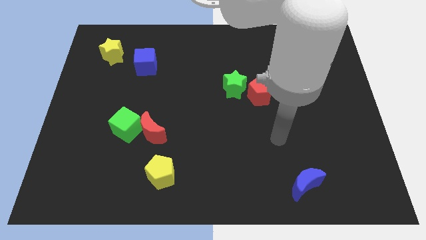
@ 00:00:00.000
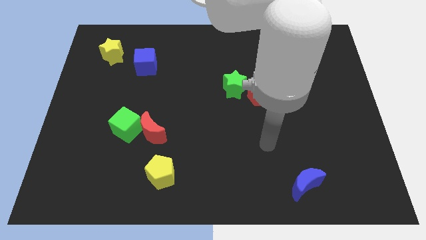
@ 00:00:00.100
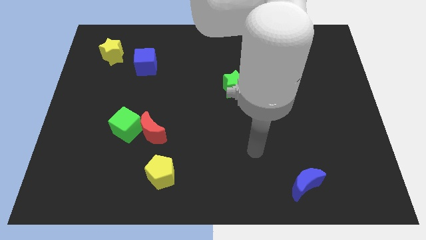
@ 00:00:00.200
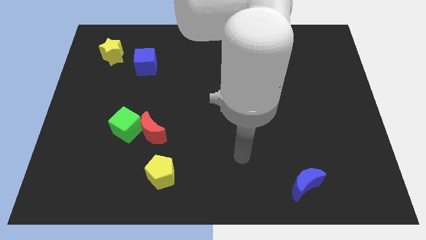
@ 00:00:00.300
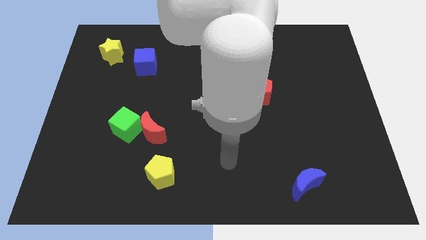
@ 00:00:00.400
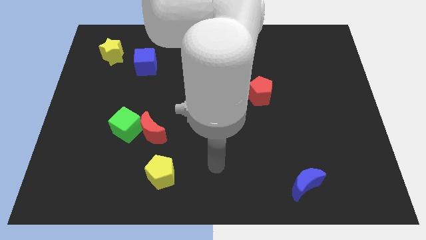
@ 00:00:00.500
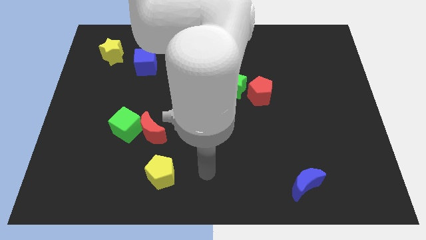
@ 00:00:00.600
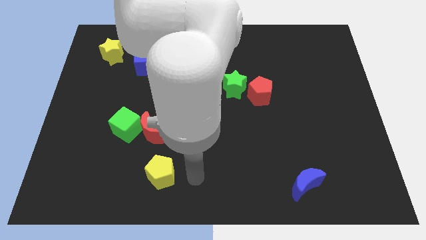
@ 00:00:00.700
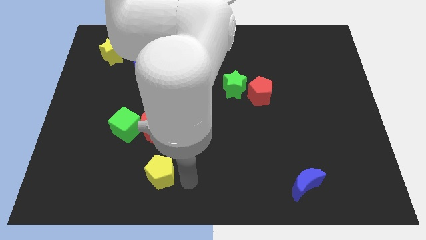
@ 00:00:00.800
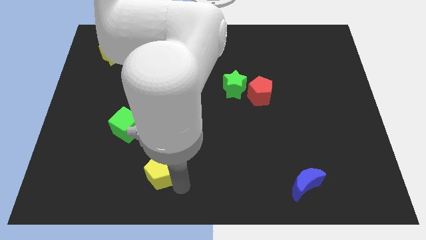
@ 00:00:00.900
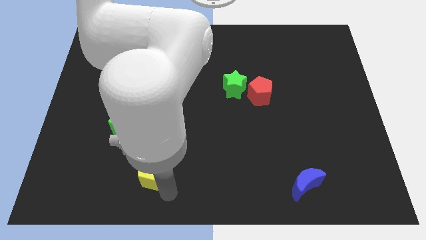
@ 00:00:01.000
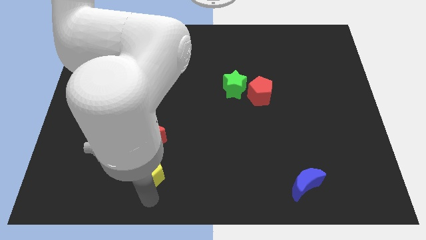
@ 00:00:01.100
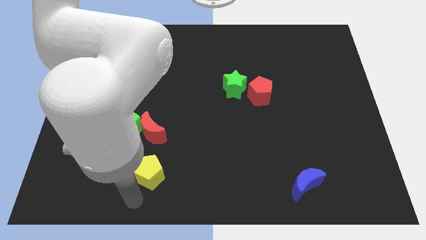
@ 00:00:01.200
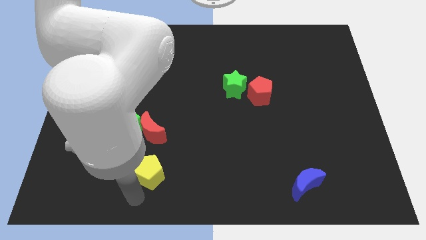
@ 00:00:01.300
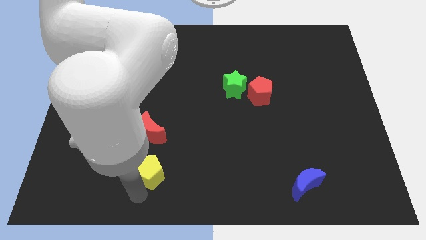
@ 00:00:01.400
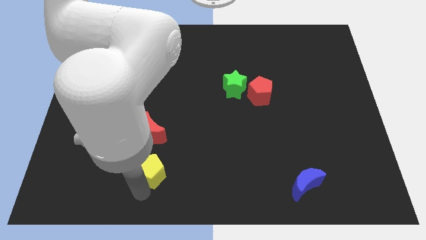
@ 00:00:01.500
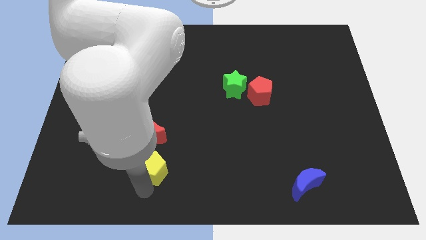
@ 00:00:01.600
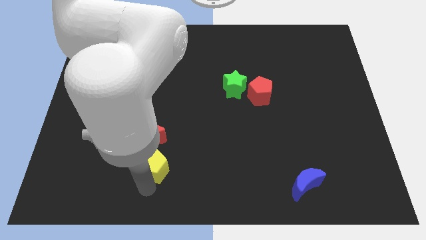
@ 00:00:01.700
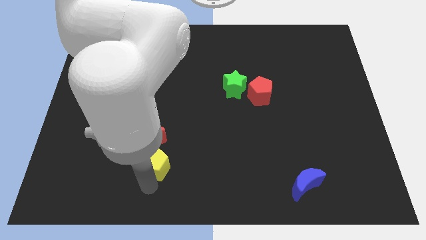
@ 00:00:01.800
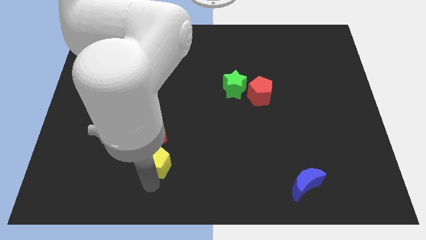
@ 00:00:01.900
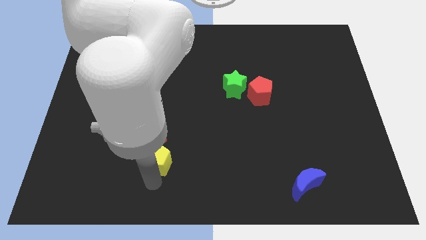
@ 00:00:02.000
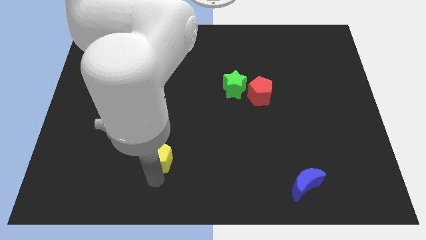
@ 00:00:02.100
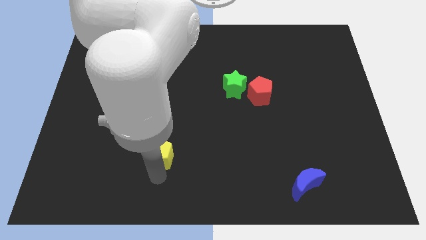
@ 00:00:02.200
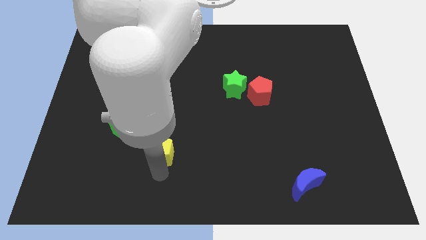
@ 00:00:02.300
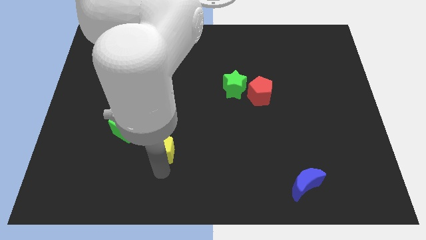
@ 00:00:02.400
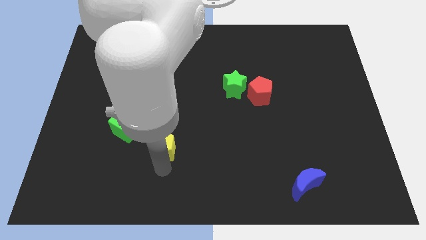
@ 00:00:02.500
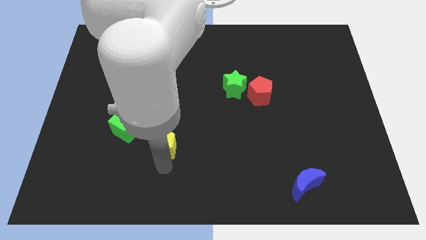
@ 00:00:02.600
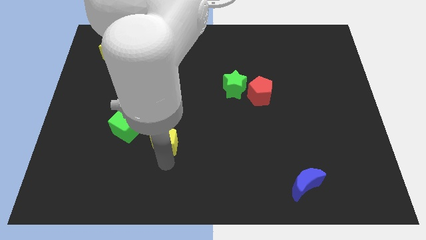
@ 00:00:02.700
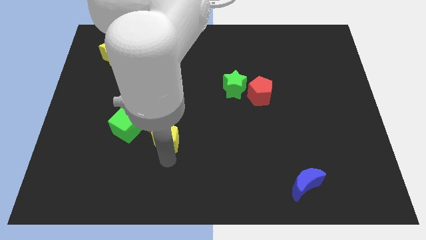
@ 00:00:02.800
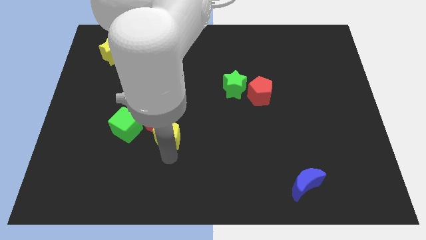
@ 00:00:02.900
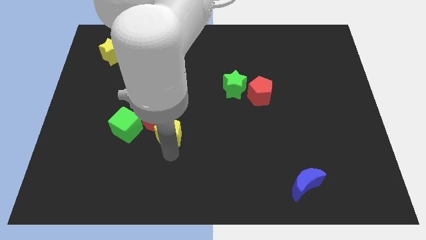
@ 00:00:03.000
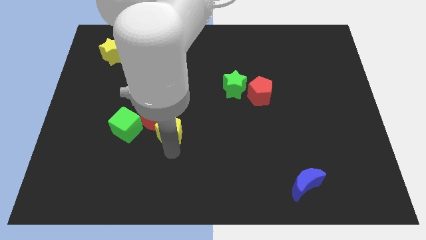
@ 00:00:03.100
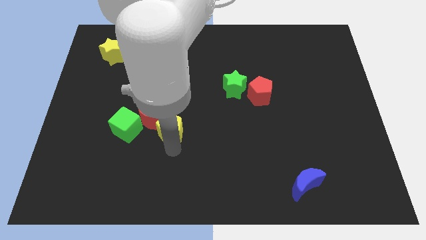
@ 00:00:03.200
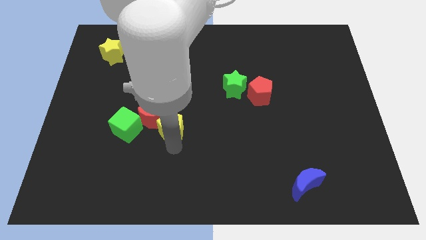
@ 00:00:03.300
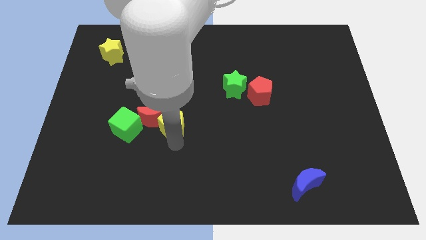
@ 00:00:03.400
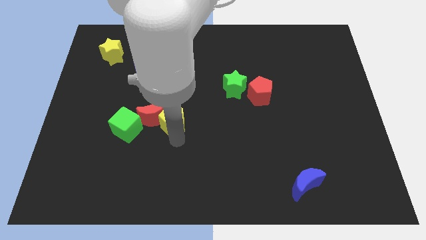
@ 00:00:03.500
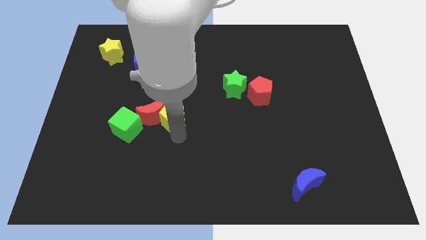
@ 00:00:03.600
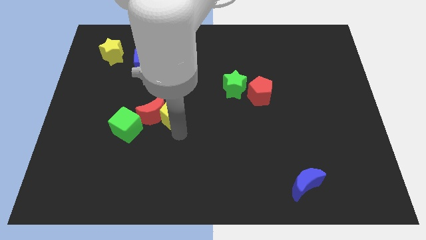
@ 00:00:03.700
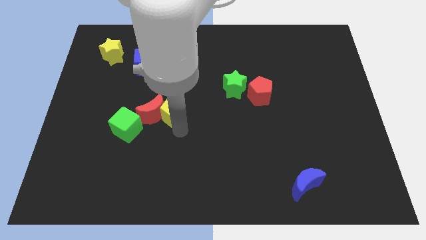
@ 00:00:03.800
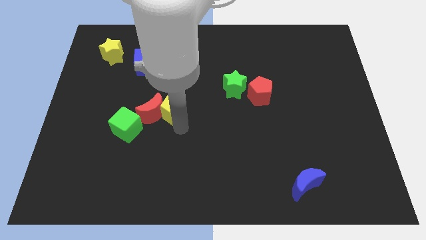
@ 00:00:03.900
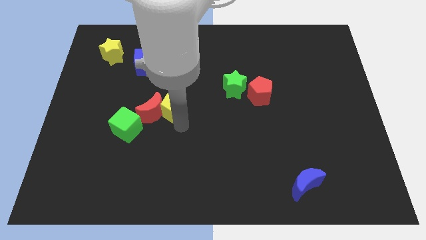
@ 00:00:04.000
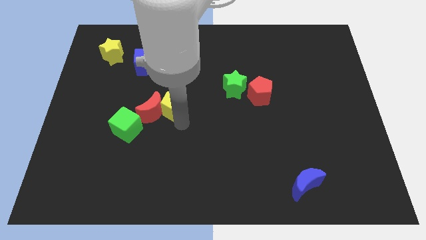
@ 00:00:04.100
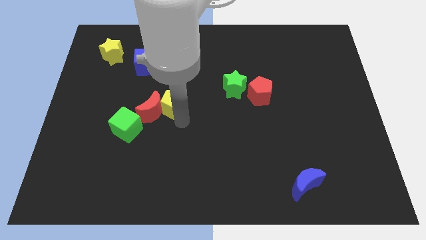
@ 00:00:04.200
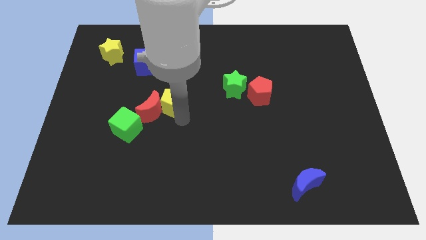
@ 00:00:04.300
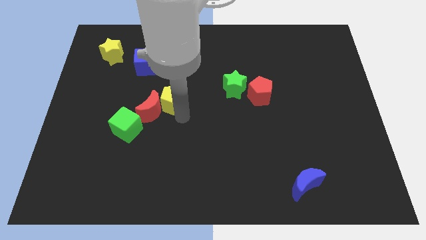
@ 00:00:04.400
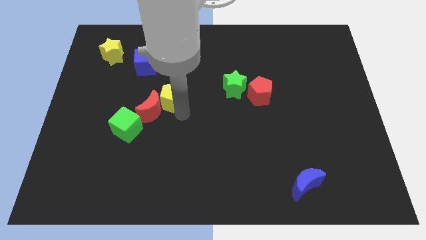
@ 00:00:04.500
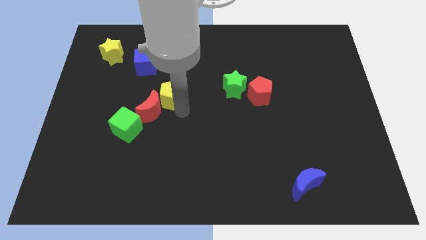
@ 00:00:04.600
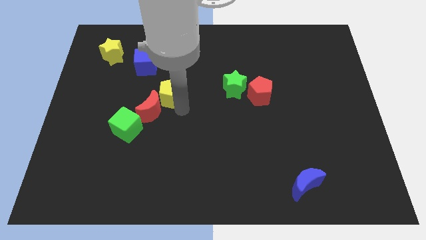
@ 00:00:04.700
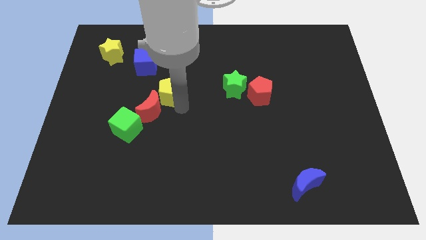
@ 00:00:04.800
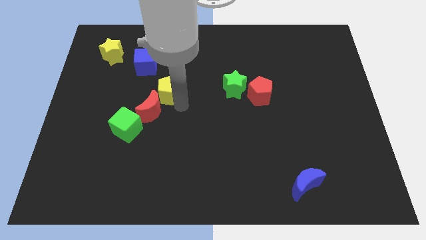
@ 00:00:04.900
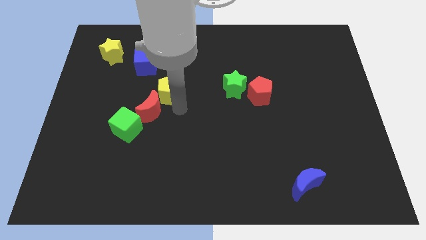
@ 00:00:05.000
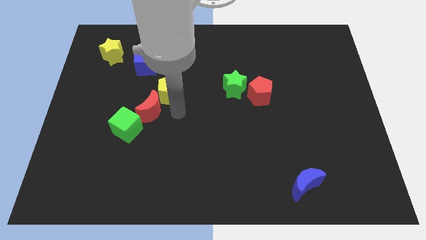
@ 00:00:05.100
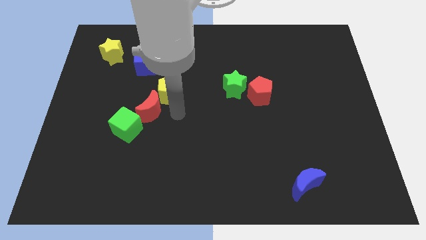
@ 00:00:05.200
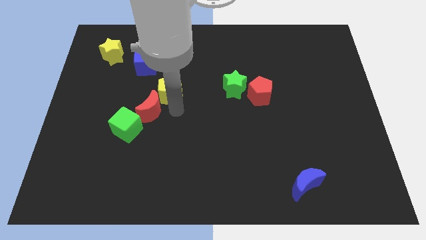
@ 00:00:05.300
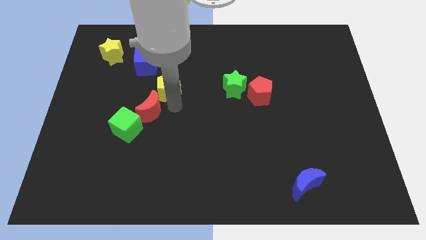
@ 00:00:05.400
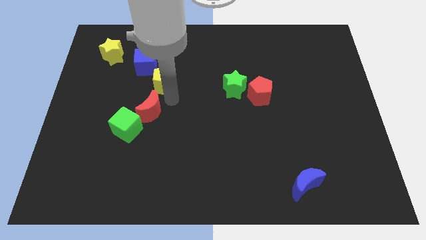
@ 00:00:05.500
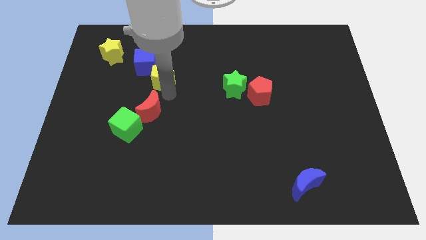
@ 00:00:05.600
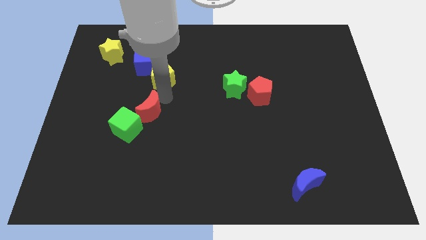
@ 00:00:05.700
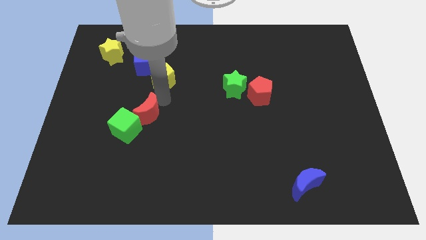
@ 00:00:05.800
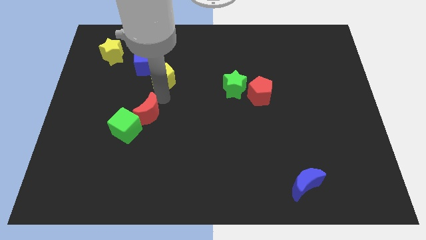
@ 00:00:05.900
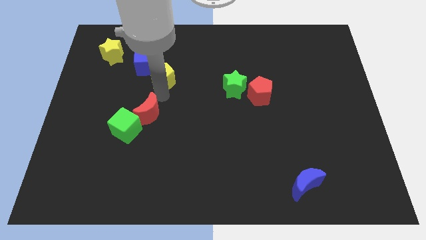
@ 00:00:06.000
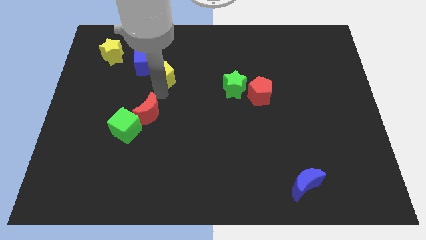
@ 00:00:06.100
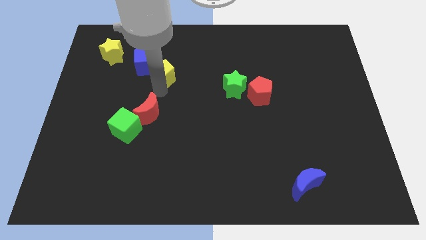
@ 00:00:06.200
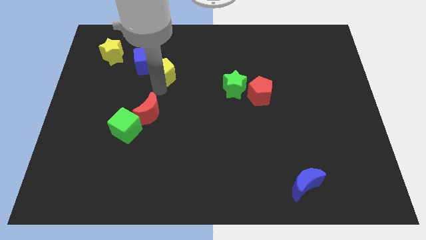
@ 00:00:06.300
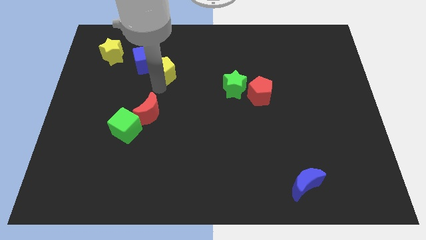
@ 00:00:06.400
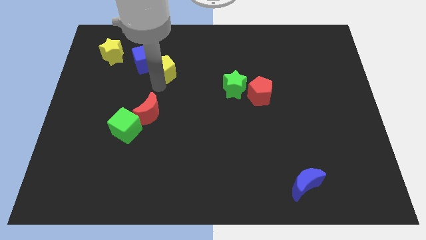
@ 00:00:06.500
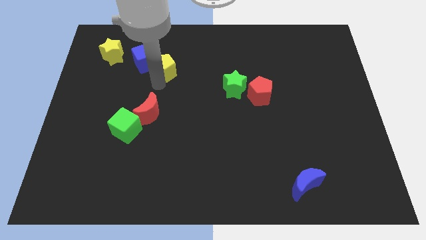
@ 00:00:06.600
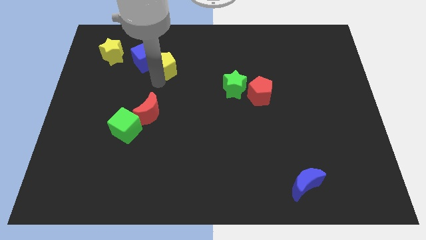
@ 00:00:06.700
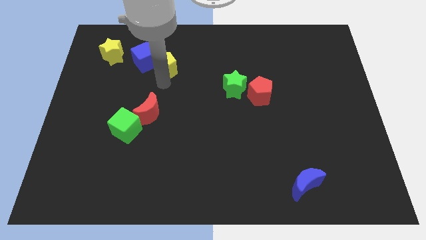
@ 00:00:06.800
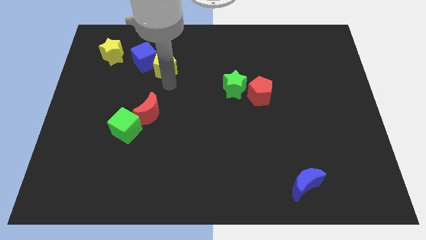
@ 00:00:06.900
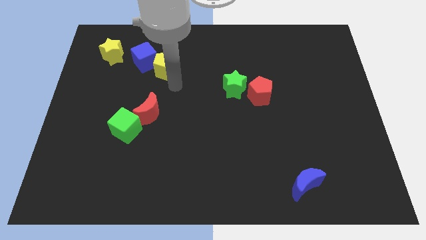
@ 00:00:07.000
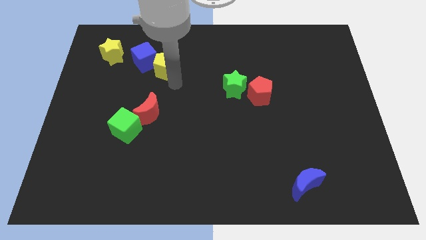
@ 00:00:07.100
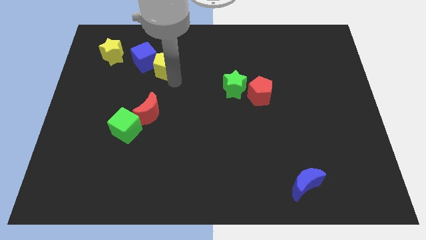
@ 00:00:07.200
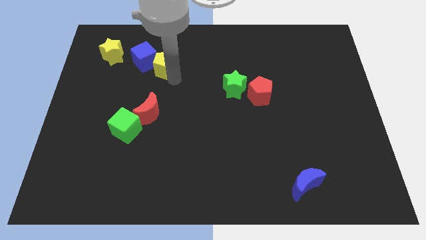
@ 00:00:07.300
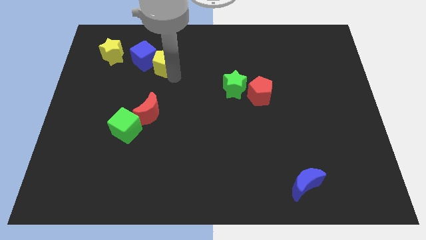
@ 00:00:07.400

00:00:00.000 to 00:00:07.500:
put the yellow pentagon right of the yellow star

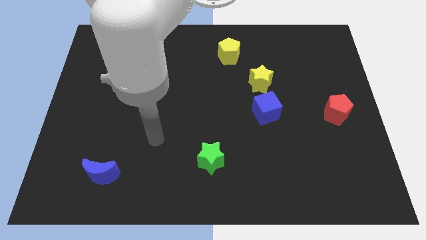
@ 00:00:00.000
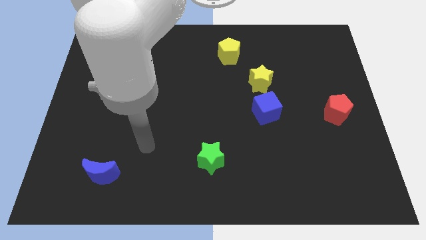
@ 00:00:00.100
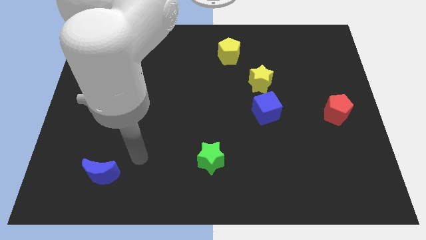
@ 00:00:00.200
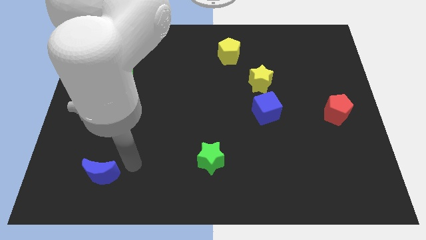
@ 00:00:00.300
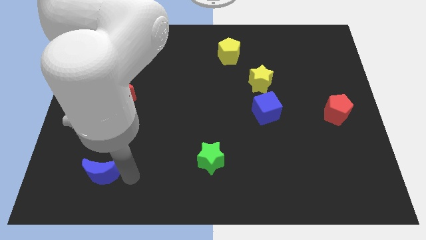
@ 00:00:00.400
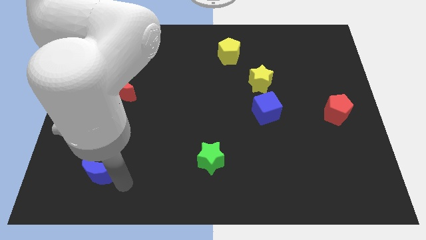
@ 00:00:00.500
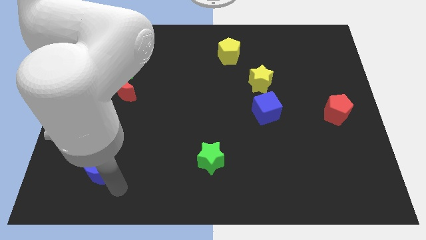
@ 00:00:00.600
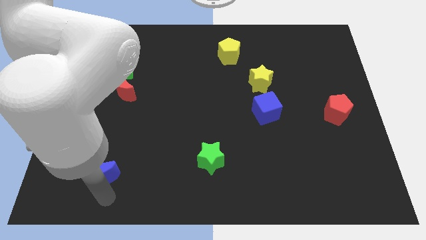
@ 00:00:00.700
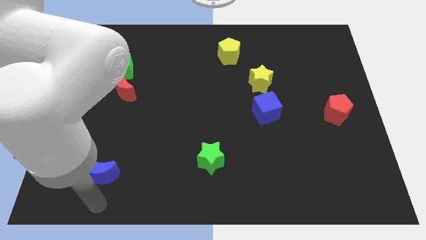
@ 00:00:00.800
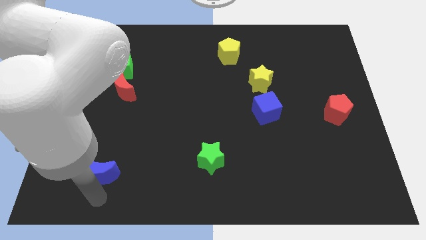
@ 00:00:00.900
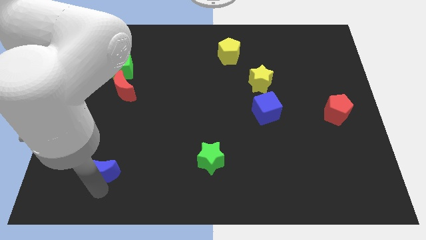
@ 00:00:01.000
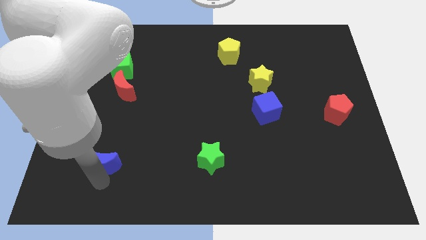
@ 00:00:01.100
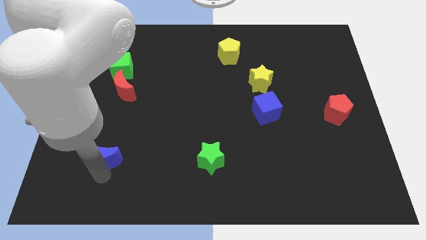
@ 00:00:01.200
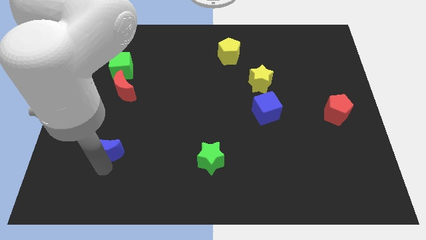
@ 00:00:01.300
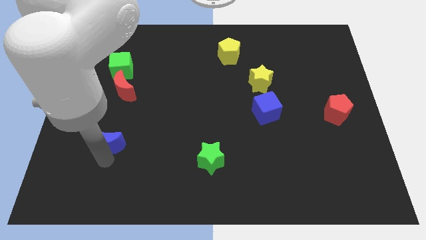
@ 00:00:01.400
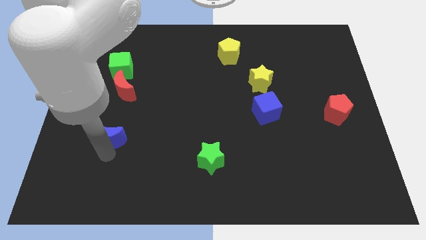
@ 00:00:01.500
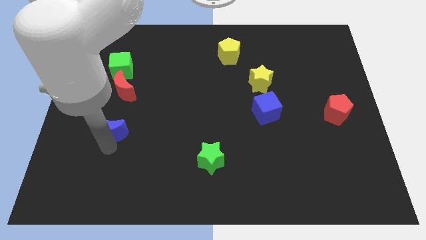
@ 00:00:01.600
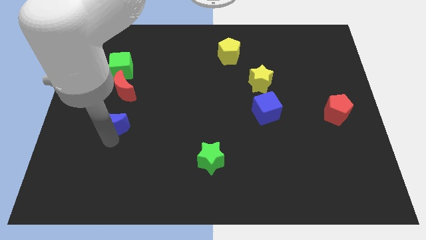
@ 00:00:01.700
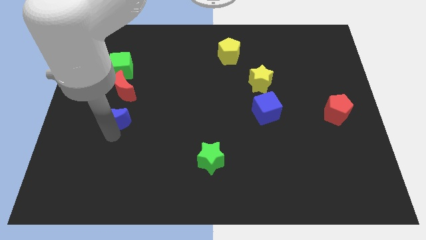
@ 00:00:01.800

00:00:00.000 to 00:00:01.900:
push the blue moon to the bottom of the green cube
